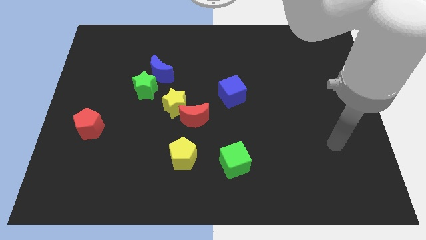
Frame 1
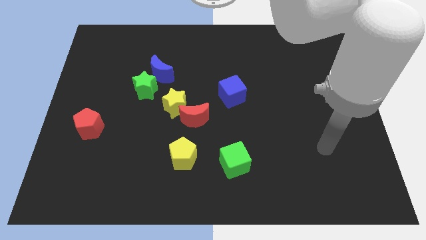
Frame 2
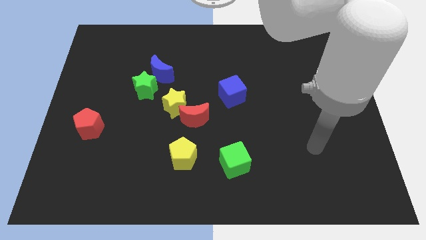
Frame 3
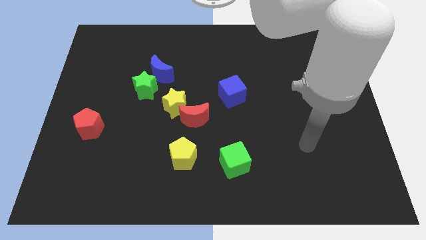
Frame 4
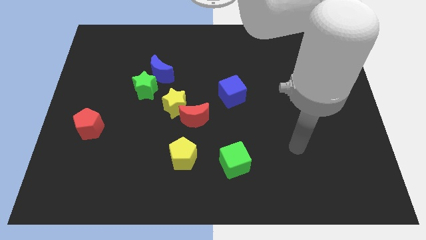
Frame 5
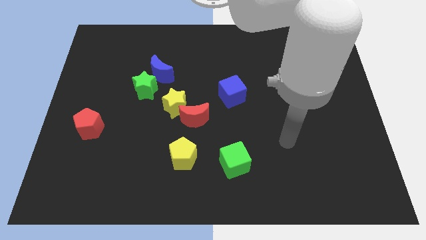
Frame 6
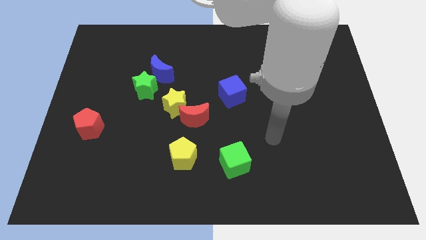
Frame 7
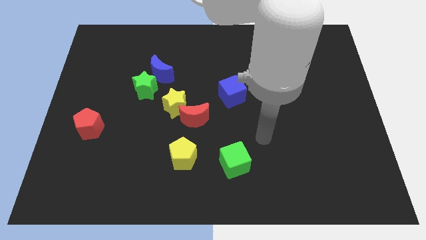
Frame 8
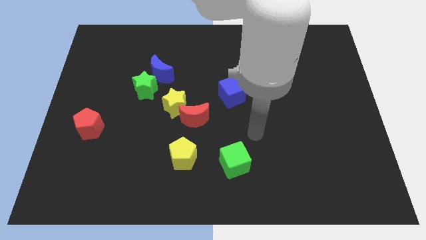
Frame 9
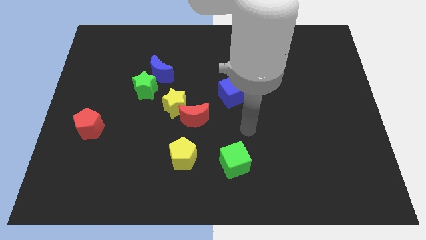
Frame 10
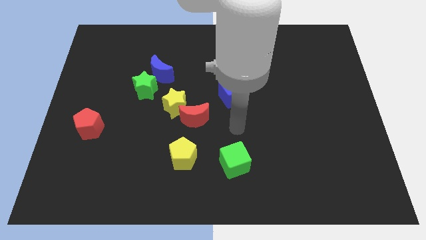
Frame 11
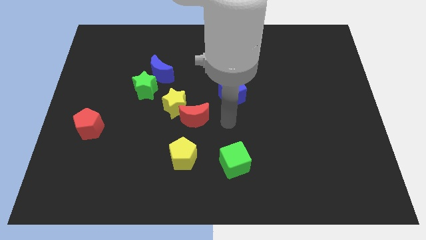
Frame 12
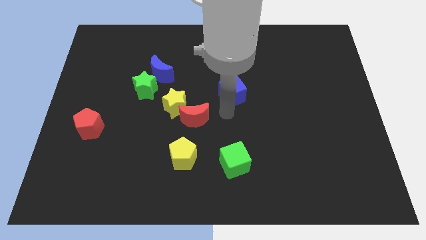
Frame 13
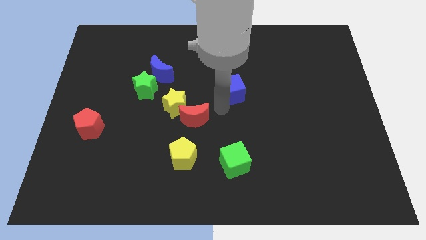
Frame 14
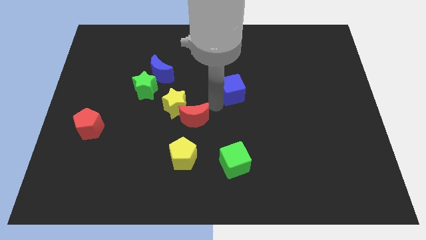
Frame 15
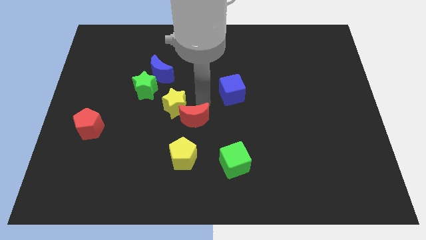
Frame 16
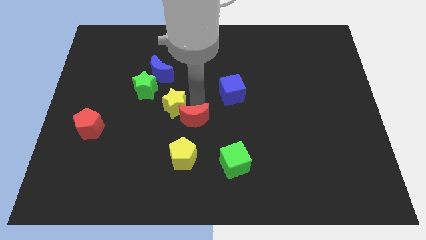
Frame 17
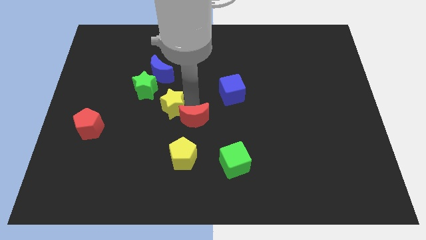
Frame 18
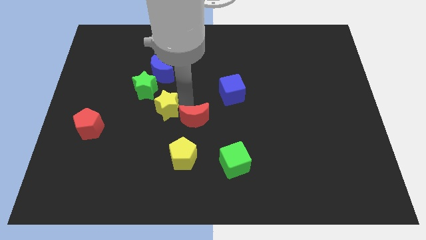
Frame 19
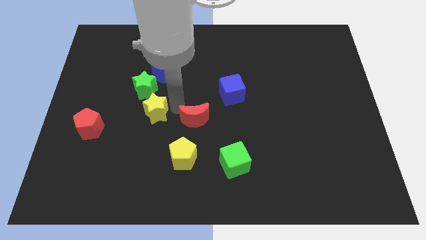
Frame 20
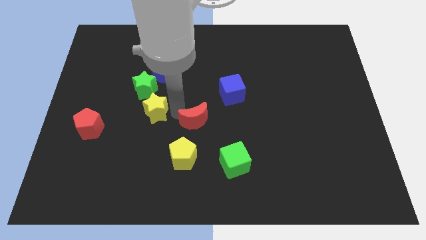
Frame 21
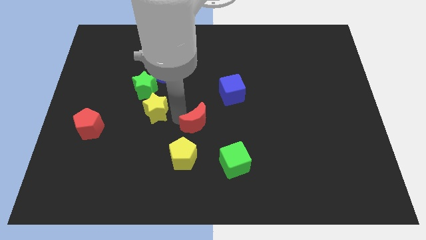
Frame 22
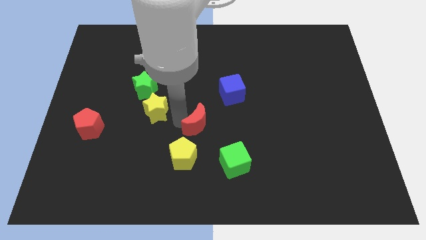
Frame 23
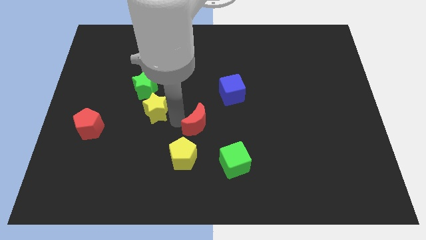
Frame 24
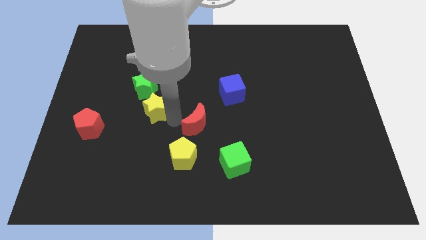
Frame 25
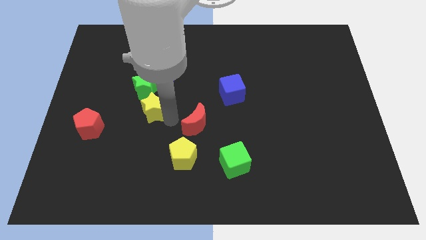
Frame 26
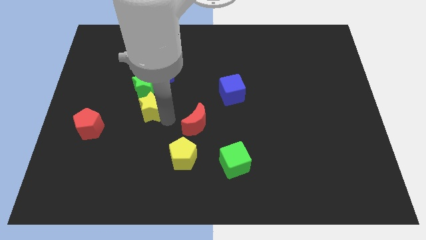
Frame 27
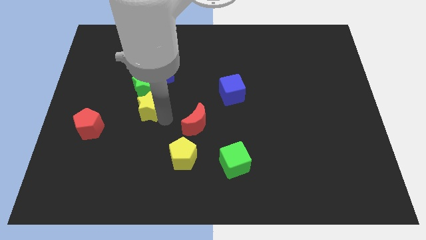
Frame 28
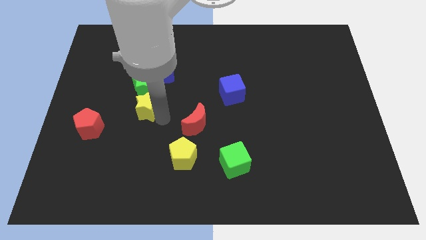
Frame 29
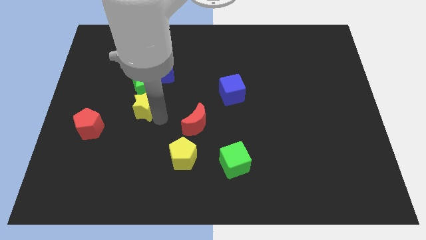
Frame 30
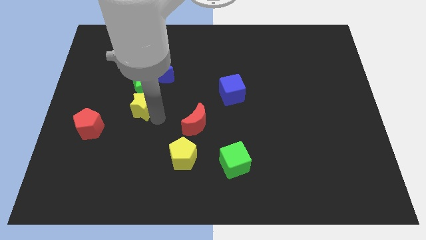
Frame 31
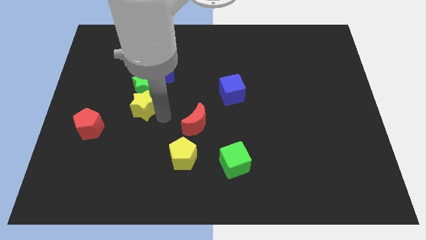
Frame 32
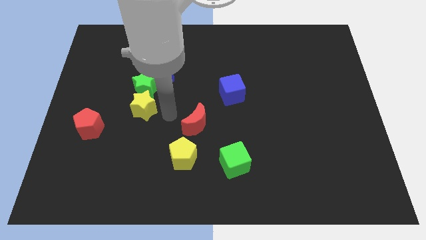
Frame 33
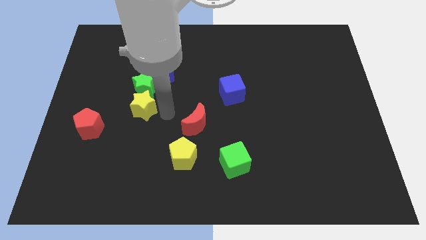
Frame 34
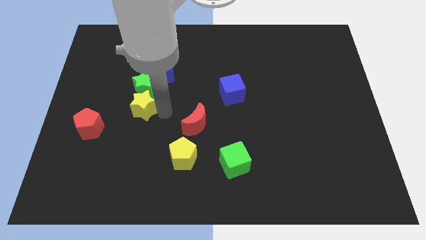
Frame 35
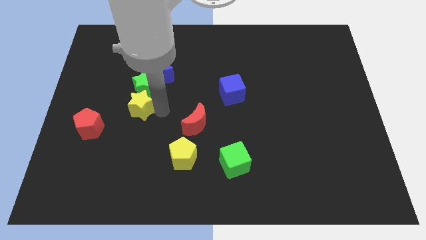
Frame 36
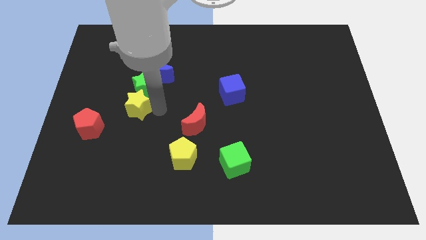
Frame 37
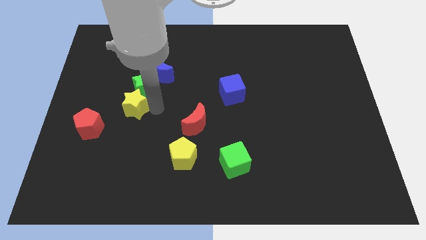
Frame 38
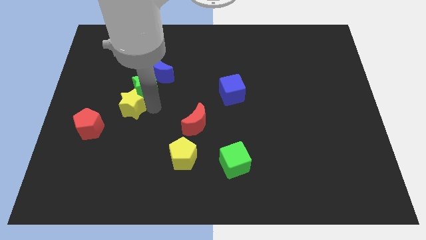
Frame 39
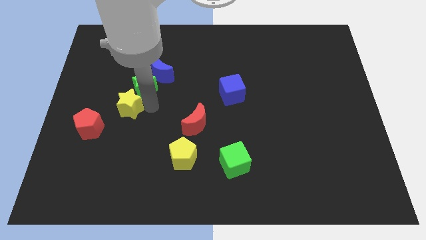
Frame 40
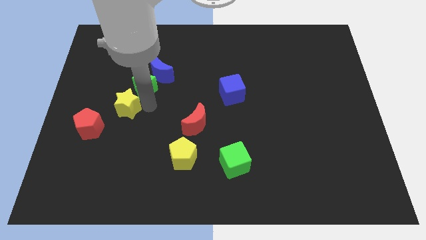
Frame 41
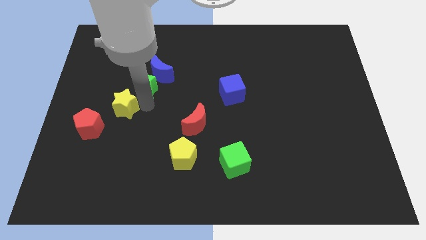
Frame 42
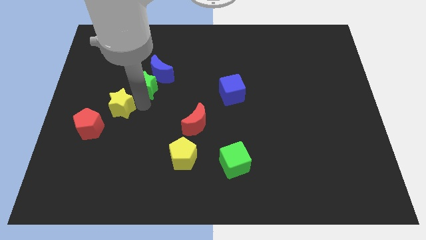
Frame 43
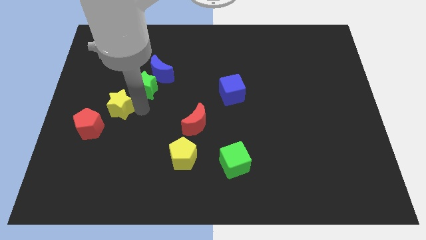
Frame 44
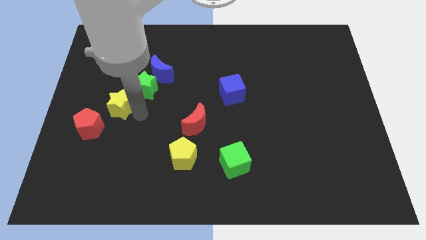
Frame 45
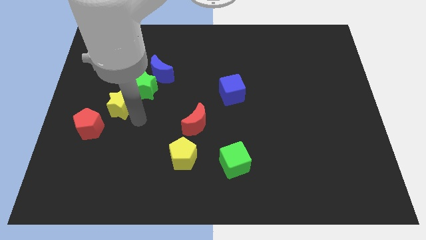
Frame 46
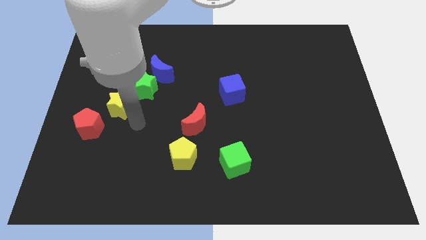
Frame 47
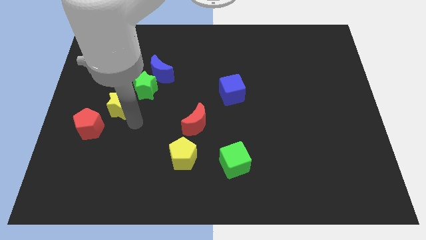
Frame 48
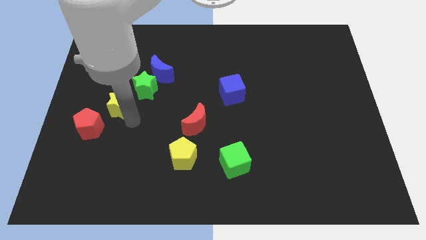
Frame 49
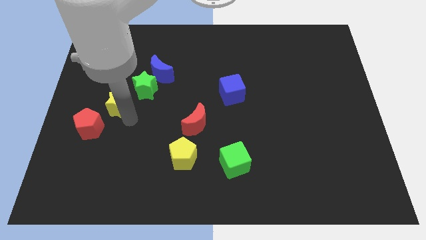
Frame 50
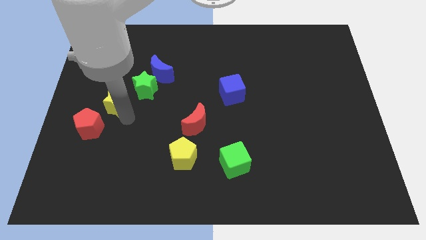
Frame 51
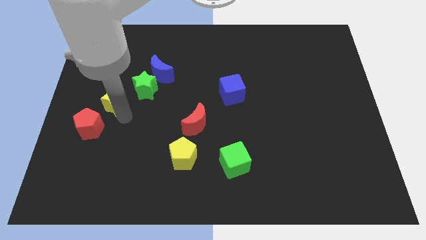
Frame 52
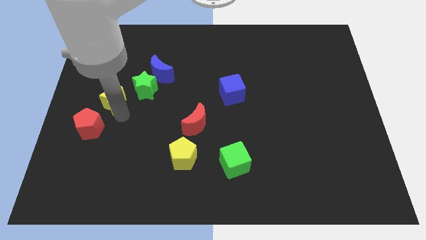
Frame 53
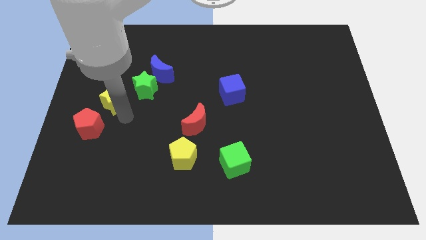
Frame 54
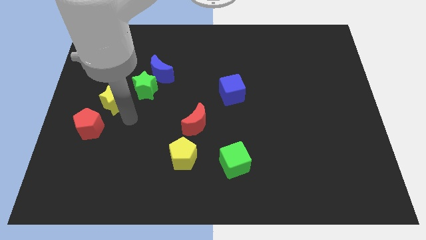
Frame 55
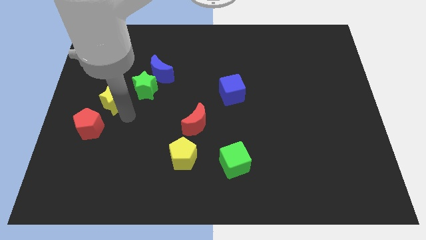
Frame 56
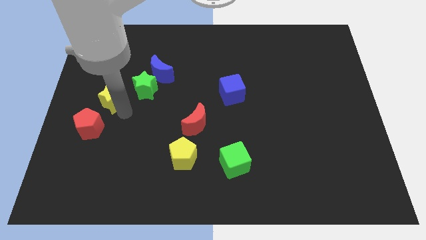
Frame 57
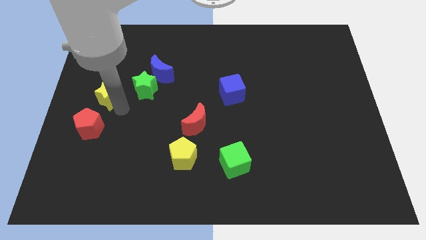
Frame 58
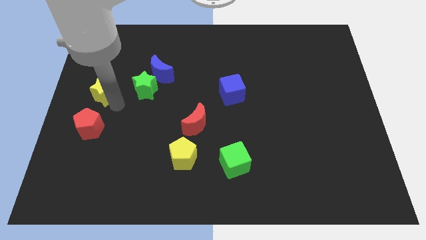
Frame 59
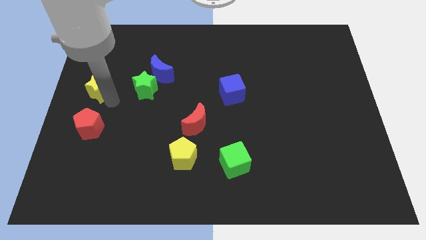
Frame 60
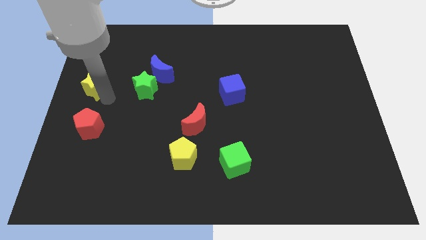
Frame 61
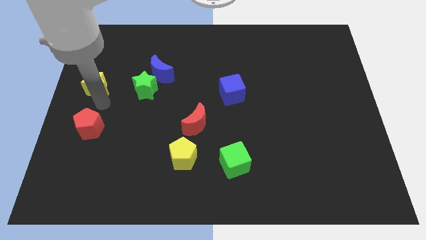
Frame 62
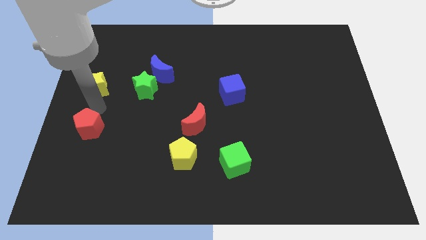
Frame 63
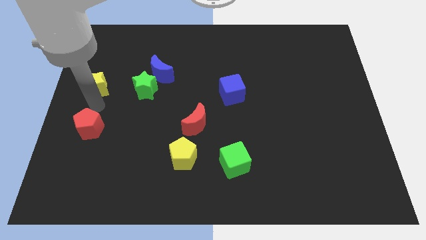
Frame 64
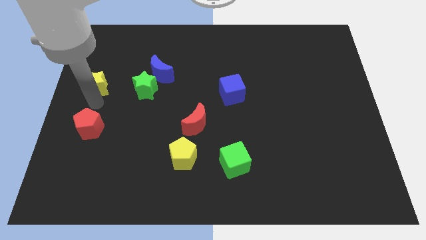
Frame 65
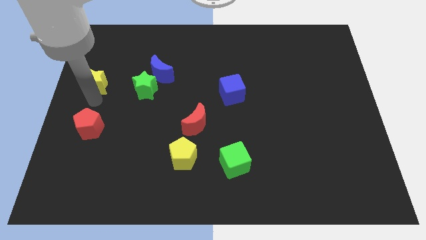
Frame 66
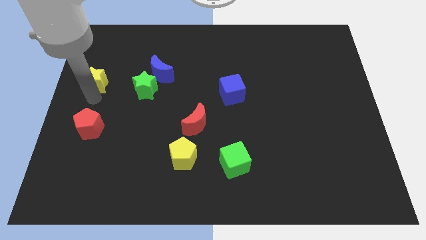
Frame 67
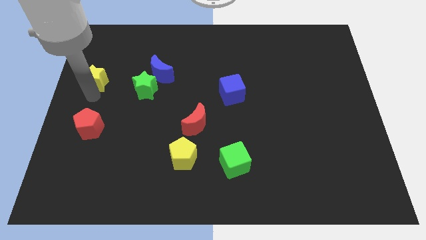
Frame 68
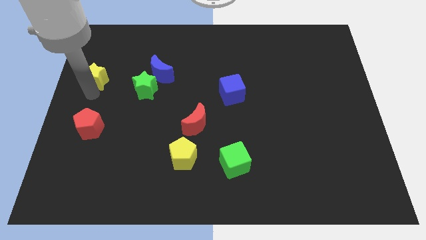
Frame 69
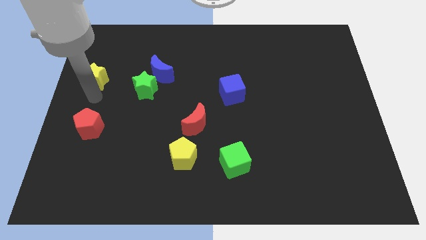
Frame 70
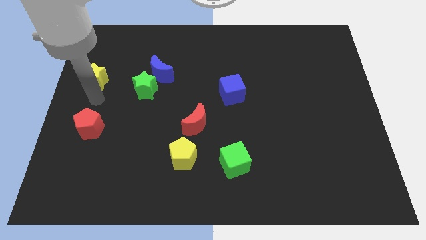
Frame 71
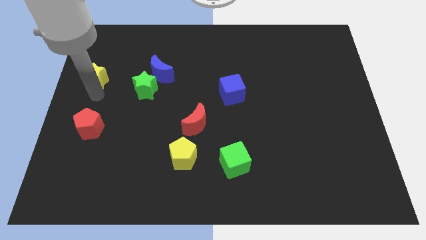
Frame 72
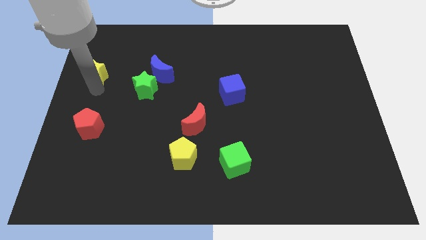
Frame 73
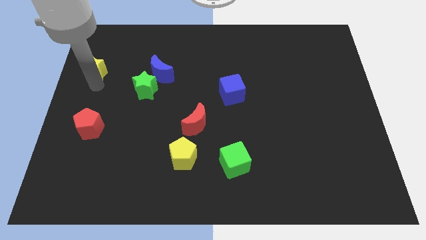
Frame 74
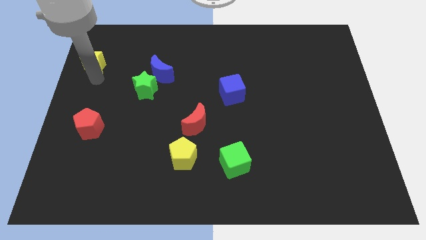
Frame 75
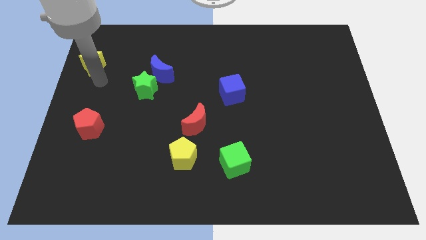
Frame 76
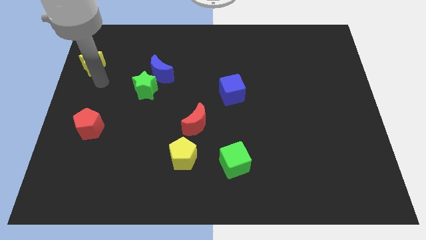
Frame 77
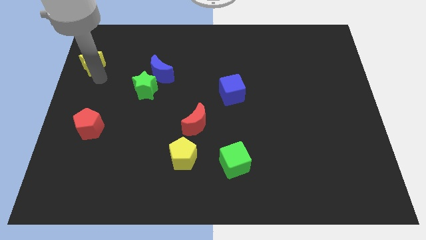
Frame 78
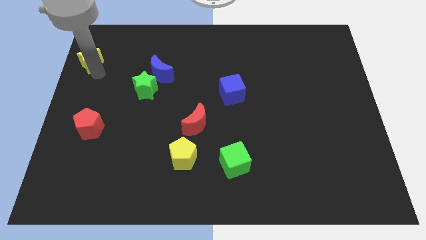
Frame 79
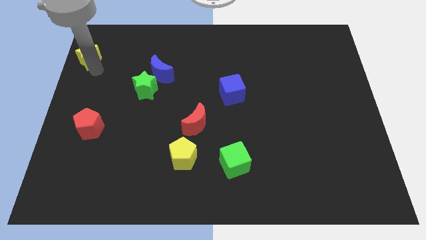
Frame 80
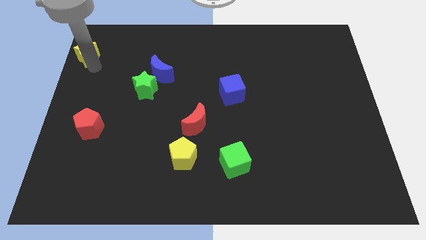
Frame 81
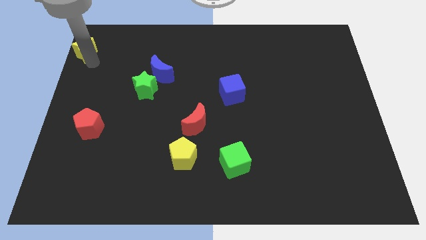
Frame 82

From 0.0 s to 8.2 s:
push the yellow star to the top left
